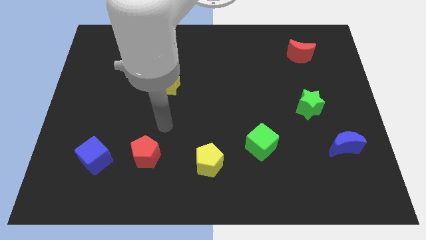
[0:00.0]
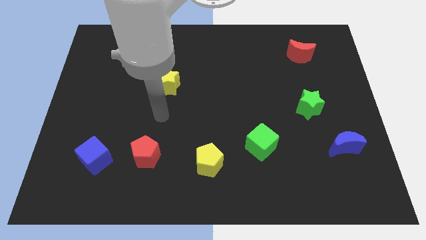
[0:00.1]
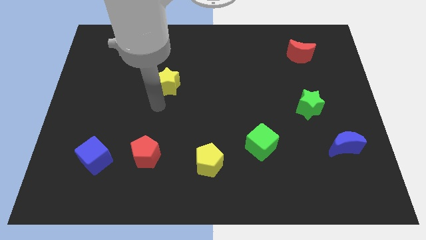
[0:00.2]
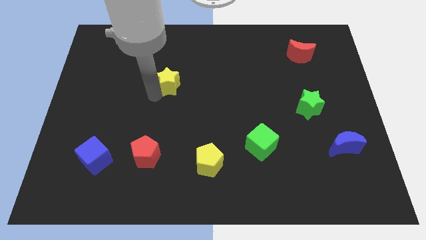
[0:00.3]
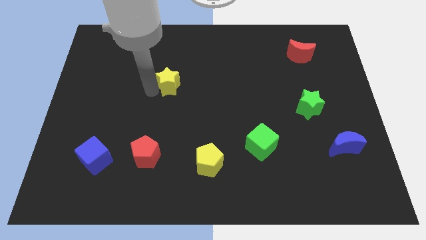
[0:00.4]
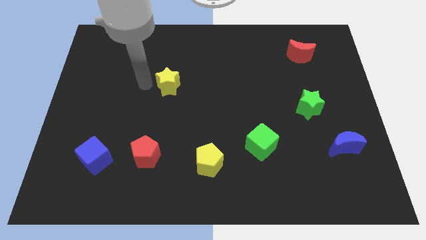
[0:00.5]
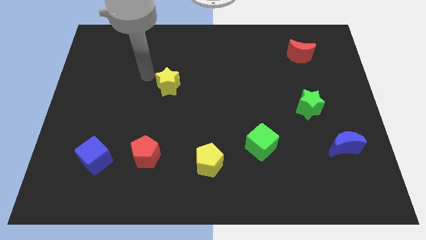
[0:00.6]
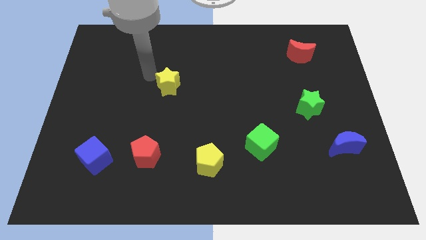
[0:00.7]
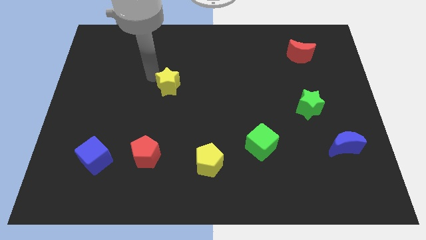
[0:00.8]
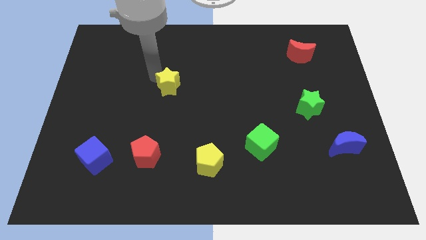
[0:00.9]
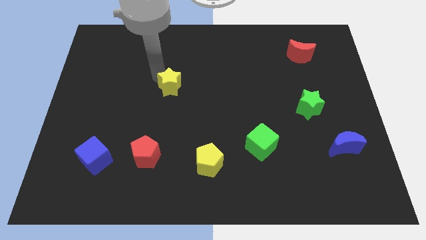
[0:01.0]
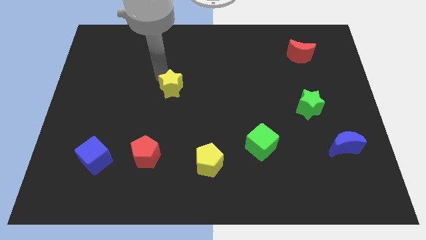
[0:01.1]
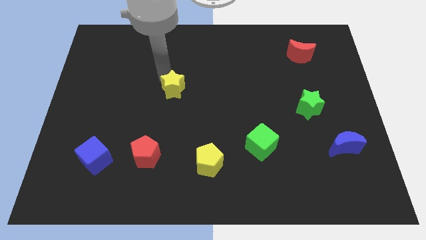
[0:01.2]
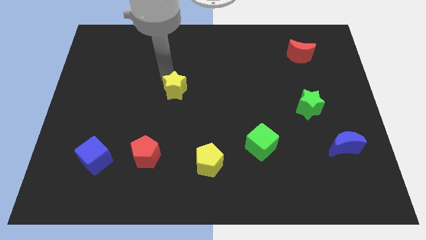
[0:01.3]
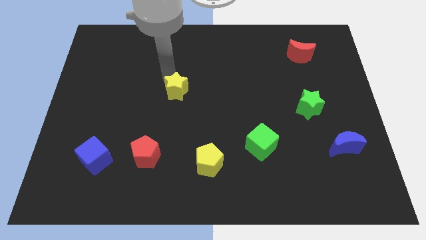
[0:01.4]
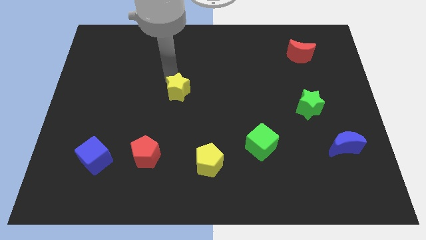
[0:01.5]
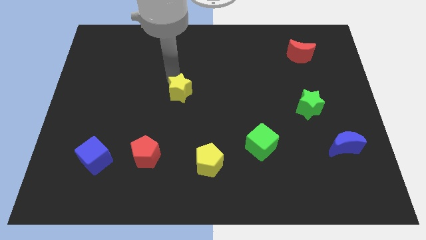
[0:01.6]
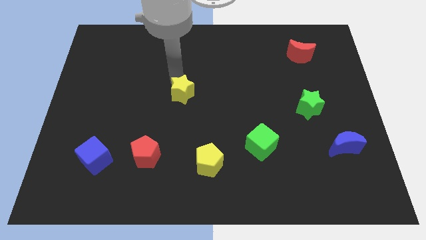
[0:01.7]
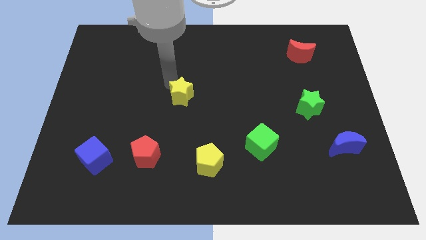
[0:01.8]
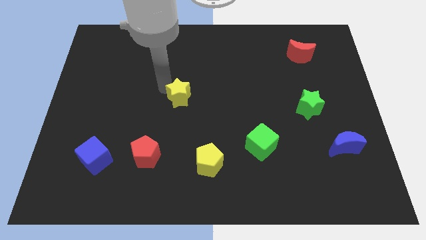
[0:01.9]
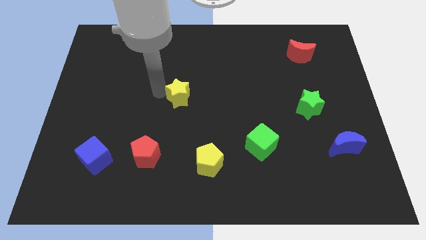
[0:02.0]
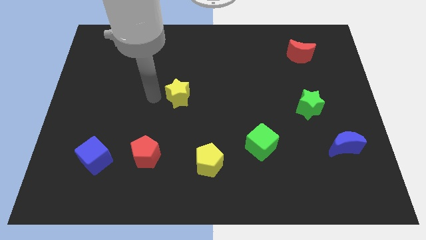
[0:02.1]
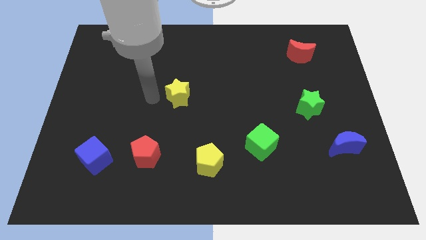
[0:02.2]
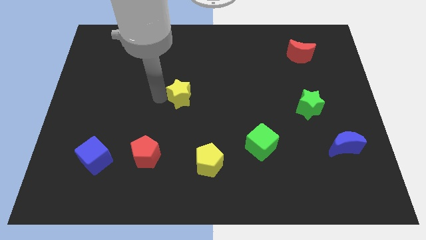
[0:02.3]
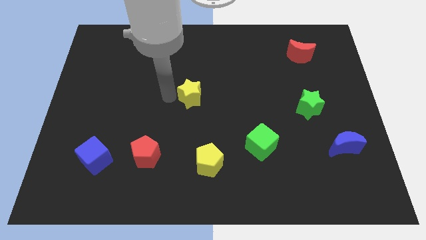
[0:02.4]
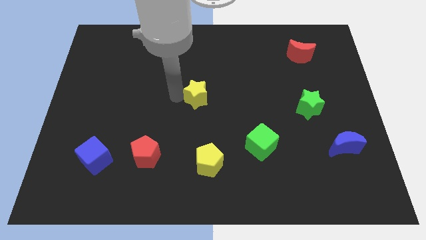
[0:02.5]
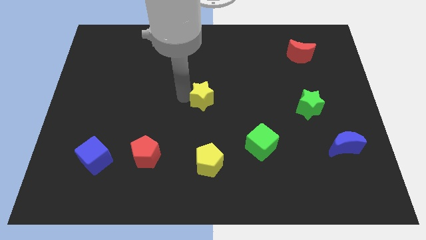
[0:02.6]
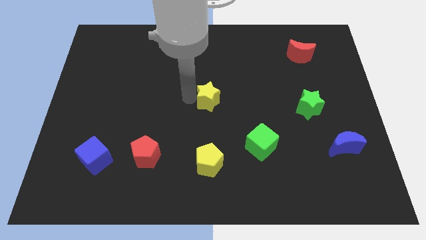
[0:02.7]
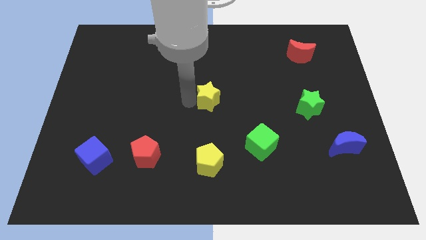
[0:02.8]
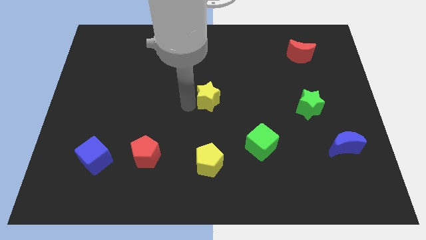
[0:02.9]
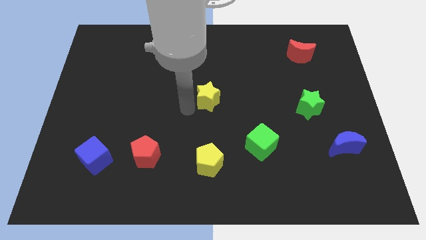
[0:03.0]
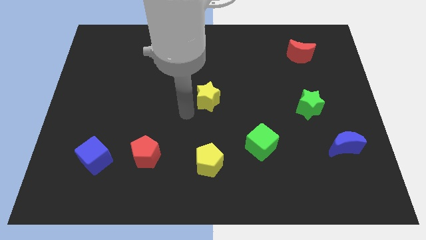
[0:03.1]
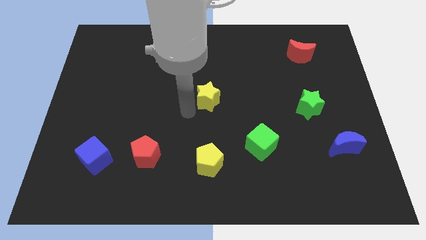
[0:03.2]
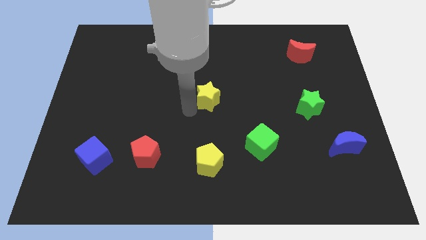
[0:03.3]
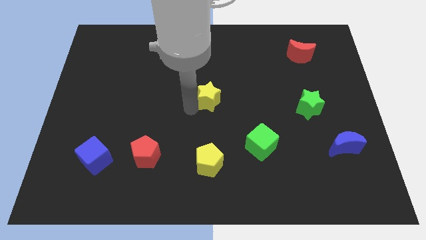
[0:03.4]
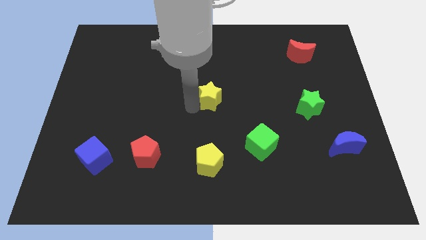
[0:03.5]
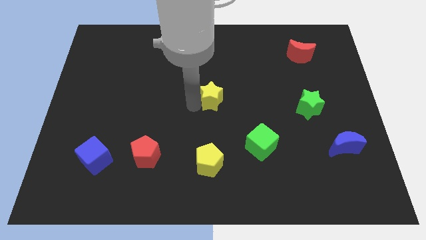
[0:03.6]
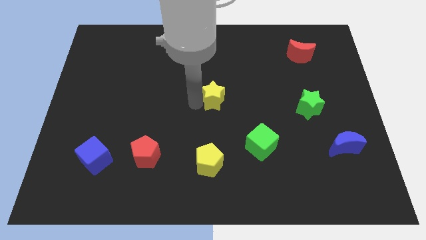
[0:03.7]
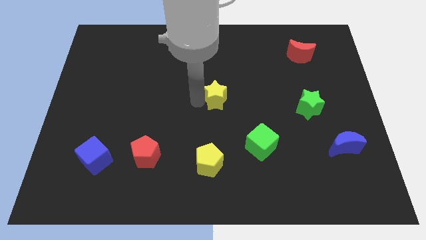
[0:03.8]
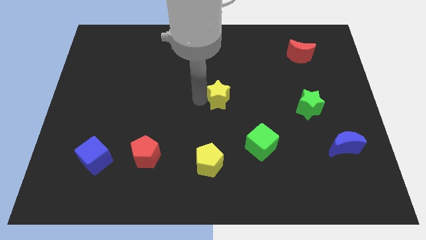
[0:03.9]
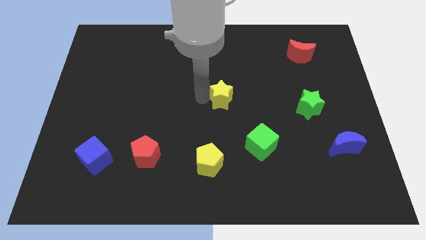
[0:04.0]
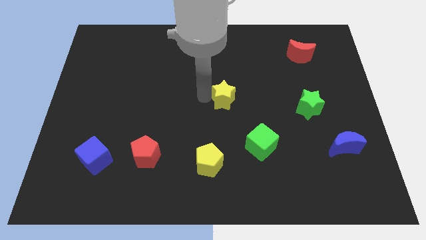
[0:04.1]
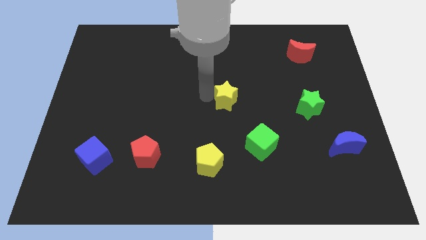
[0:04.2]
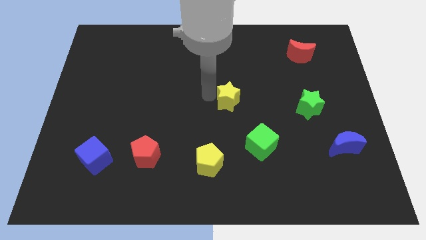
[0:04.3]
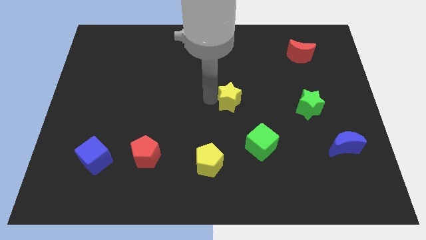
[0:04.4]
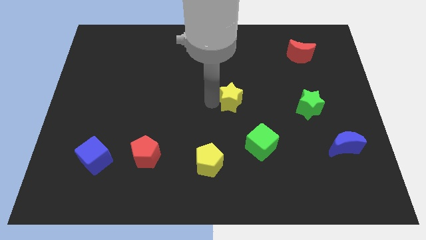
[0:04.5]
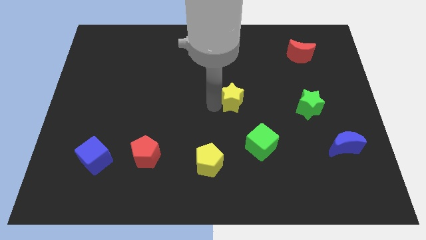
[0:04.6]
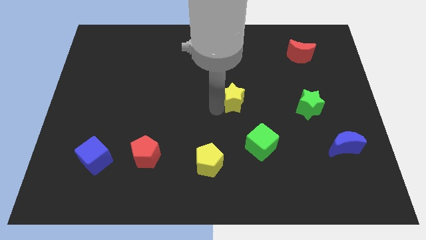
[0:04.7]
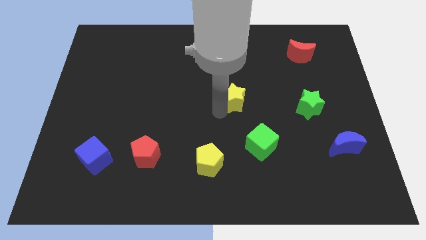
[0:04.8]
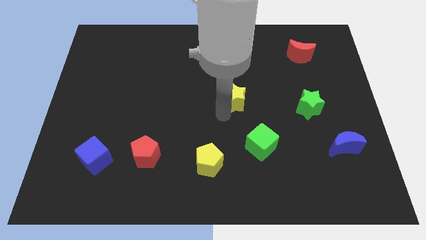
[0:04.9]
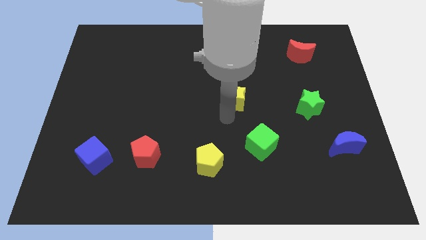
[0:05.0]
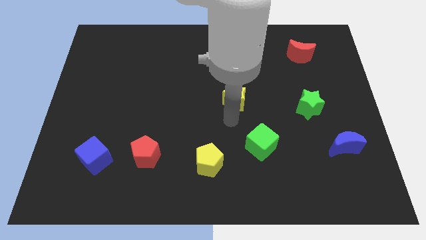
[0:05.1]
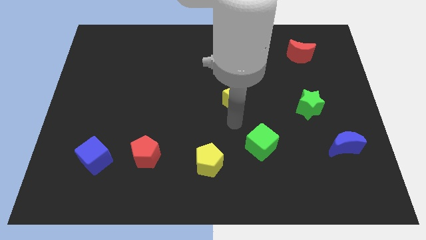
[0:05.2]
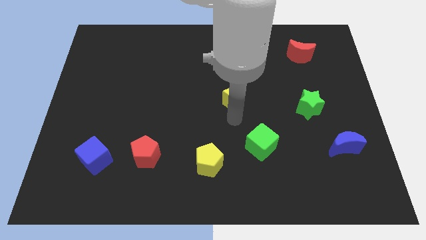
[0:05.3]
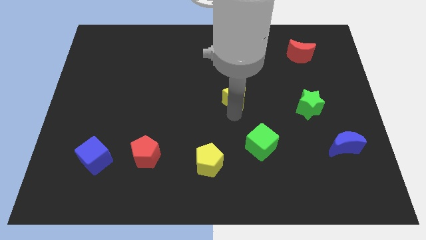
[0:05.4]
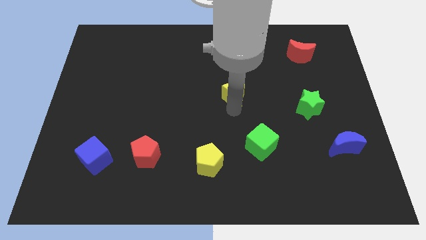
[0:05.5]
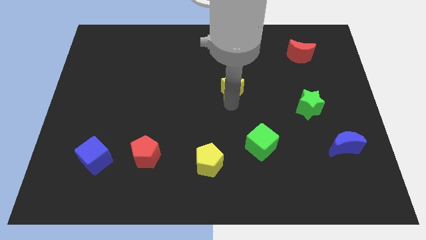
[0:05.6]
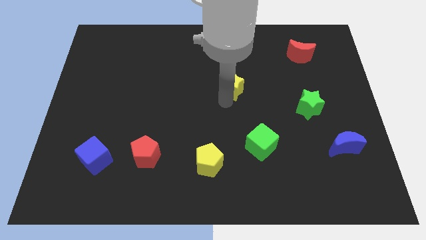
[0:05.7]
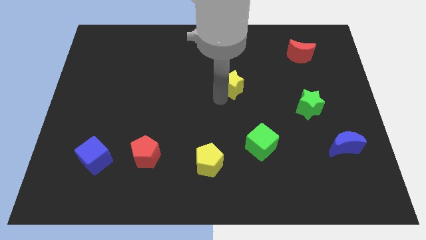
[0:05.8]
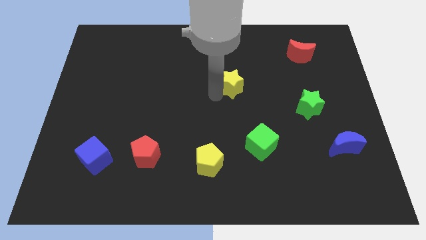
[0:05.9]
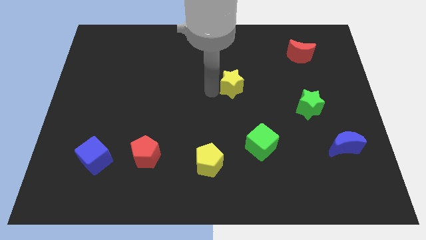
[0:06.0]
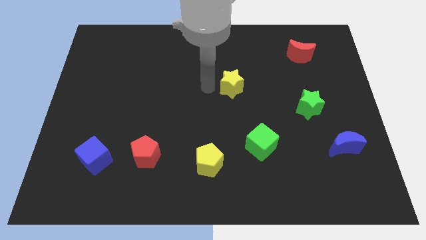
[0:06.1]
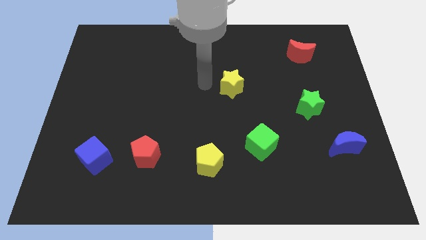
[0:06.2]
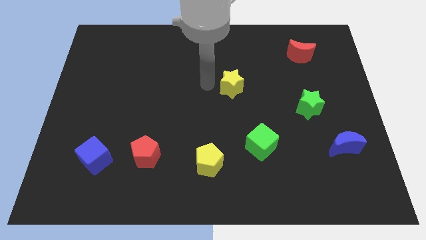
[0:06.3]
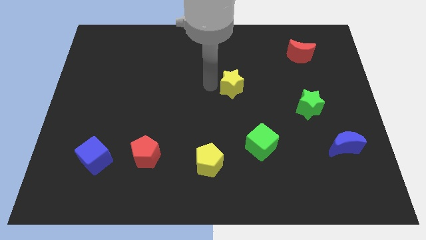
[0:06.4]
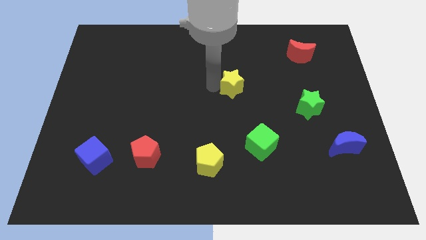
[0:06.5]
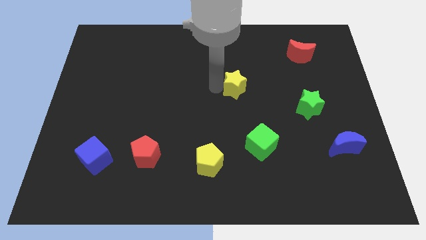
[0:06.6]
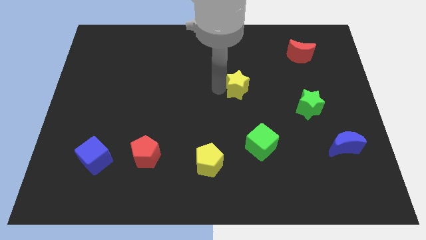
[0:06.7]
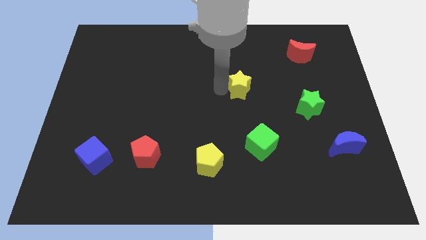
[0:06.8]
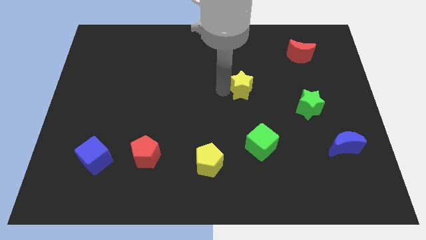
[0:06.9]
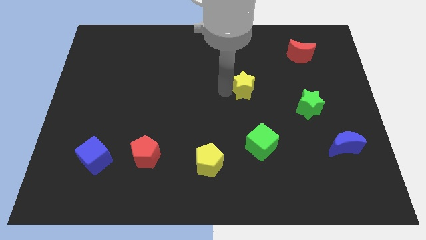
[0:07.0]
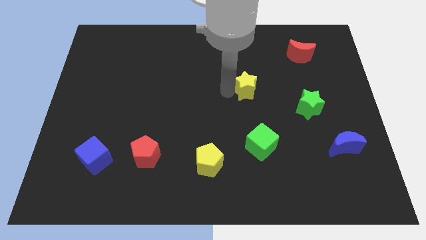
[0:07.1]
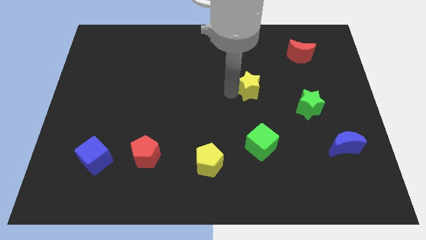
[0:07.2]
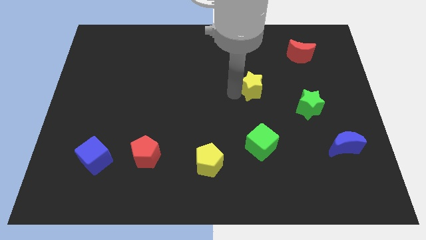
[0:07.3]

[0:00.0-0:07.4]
push the yellow star to the right
